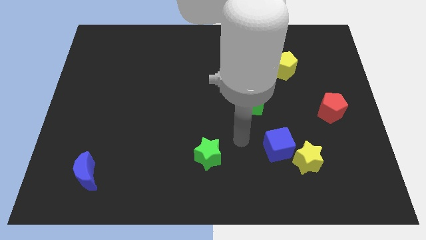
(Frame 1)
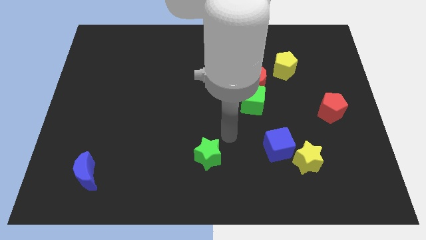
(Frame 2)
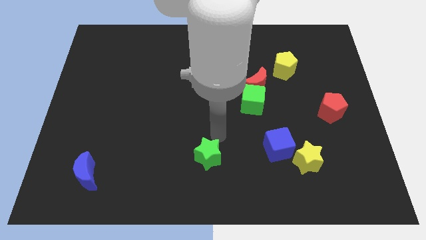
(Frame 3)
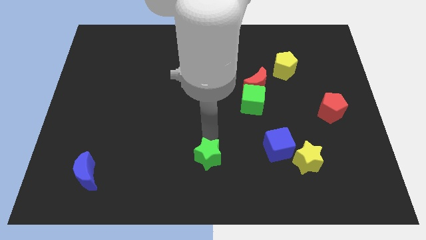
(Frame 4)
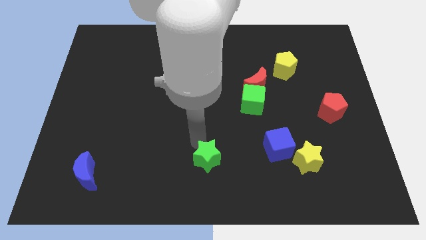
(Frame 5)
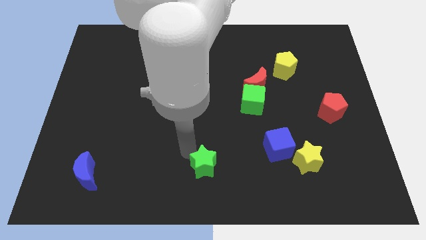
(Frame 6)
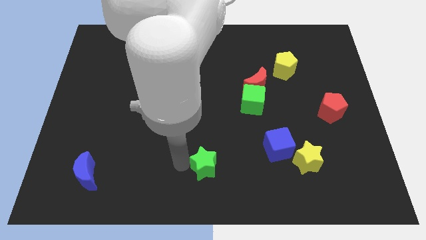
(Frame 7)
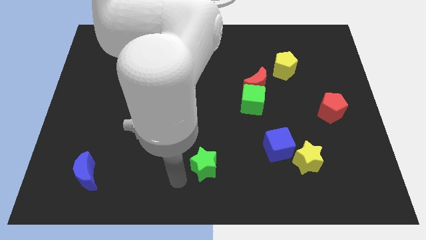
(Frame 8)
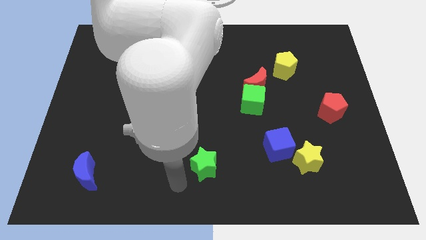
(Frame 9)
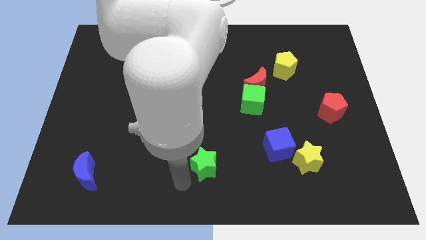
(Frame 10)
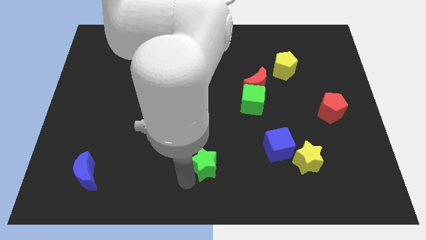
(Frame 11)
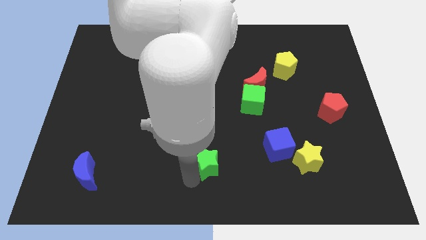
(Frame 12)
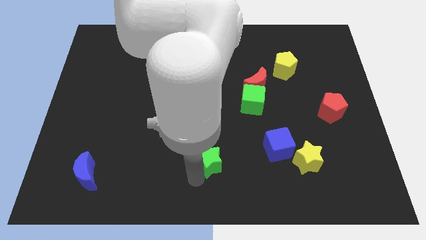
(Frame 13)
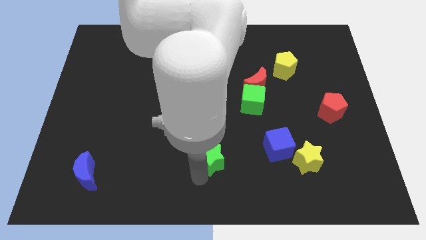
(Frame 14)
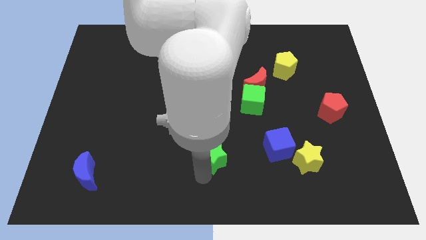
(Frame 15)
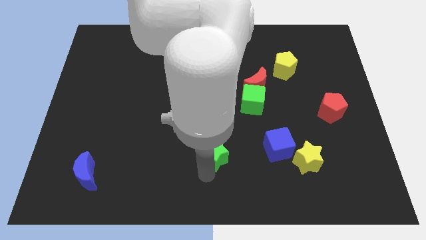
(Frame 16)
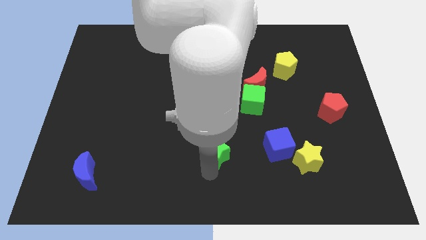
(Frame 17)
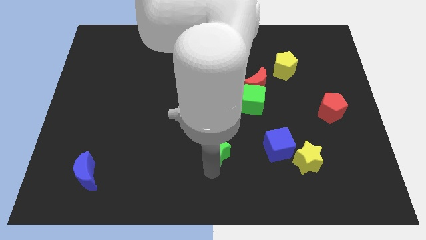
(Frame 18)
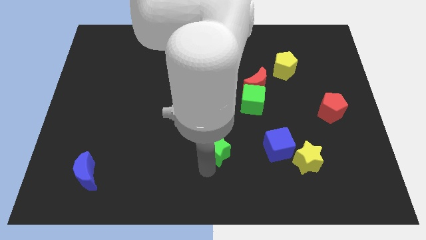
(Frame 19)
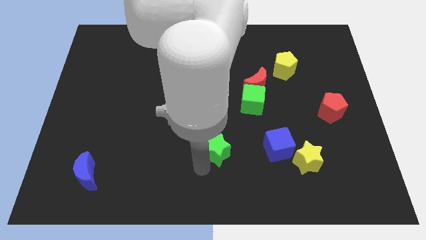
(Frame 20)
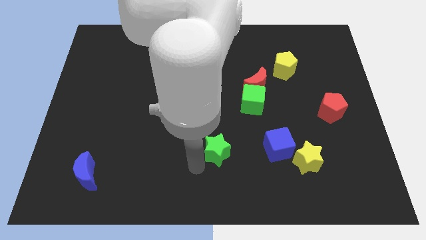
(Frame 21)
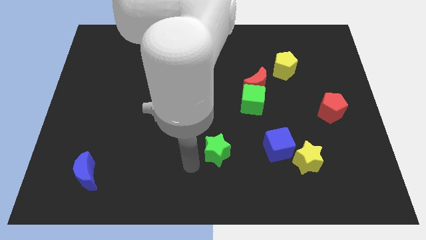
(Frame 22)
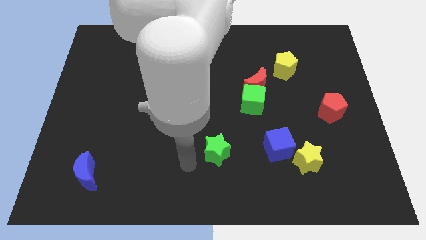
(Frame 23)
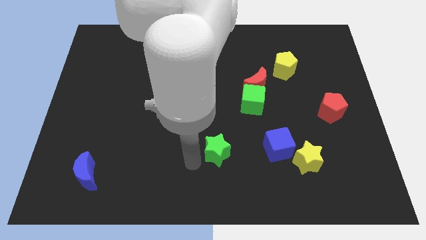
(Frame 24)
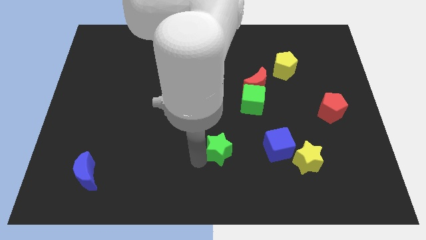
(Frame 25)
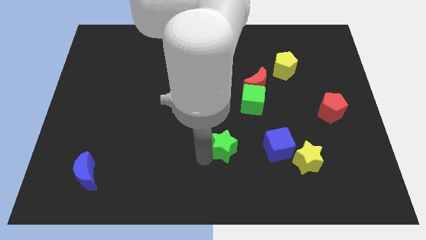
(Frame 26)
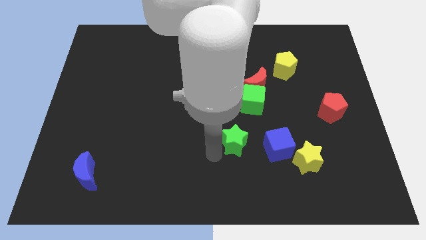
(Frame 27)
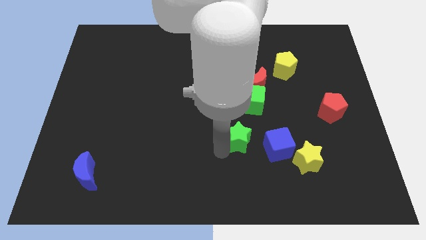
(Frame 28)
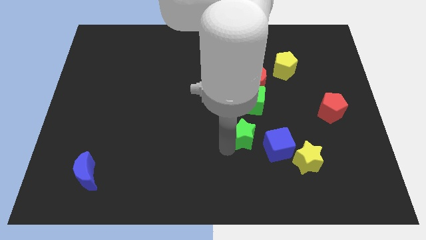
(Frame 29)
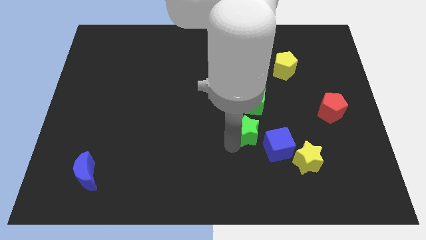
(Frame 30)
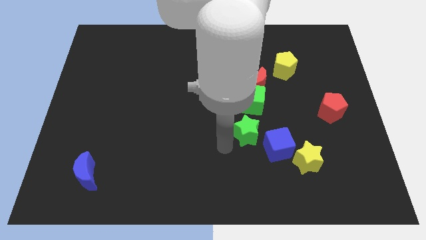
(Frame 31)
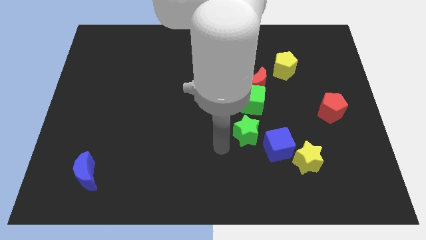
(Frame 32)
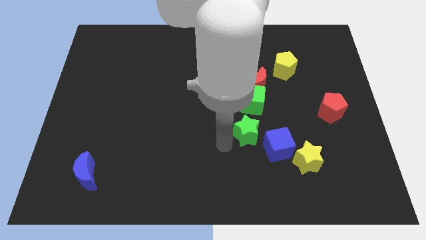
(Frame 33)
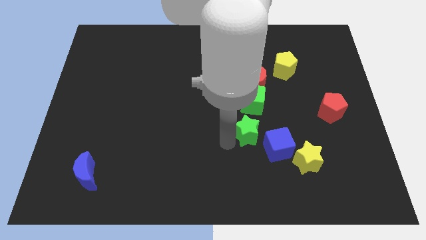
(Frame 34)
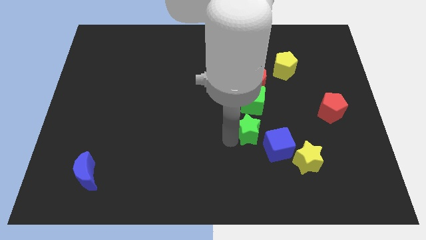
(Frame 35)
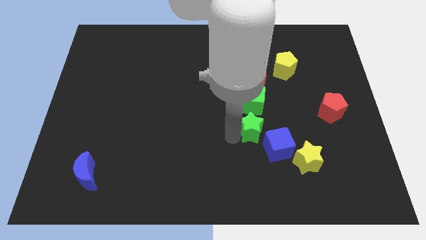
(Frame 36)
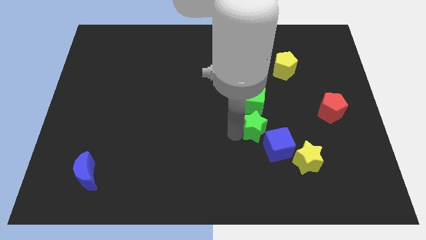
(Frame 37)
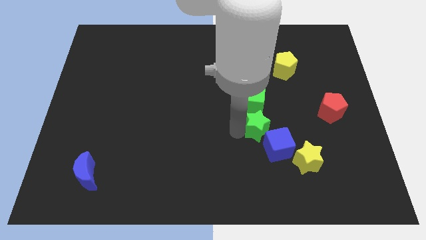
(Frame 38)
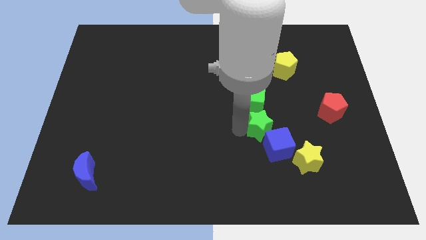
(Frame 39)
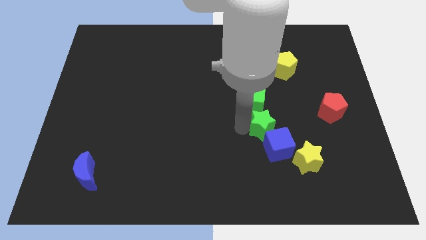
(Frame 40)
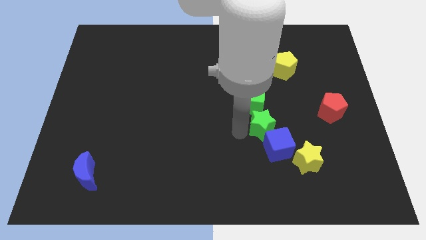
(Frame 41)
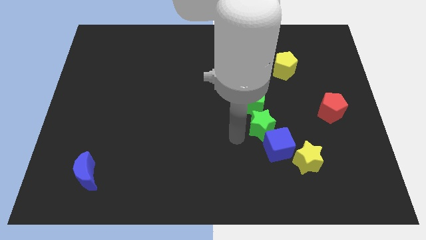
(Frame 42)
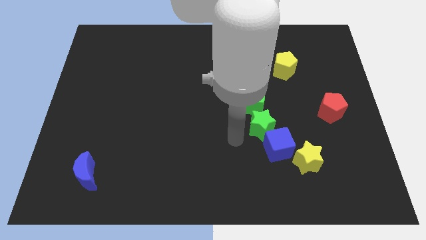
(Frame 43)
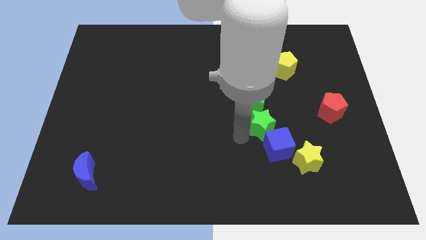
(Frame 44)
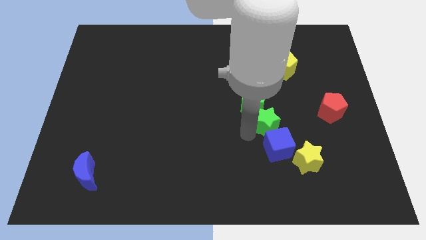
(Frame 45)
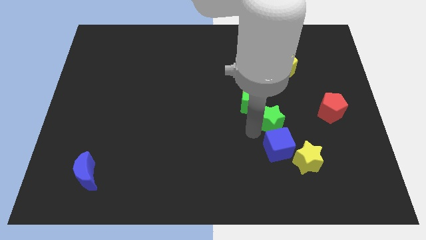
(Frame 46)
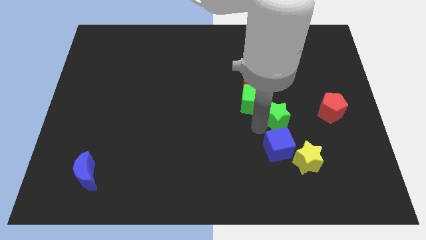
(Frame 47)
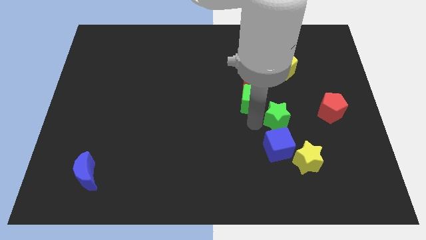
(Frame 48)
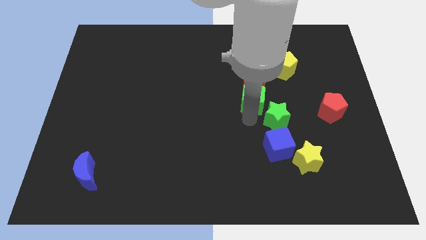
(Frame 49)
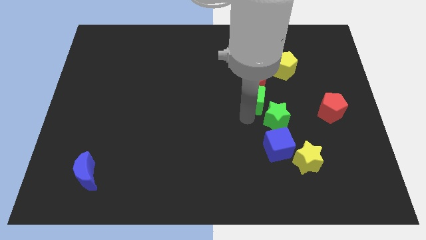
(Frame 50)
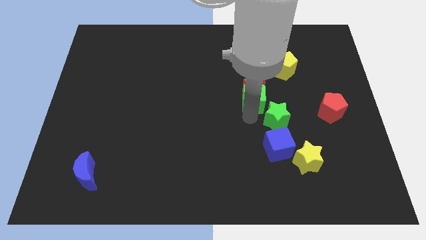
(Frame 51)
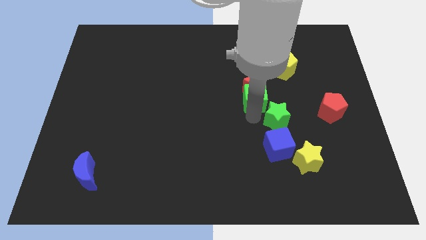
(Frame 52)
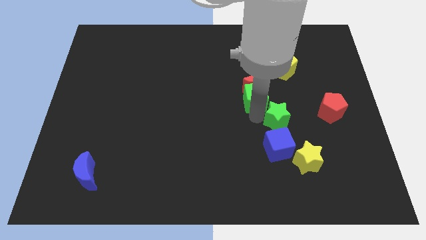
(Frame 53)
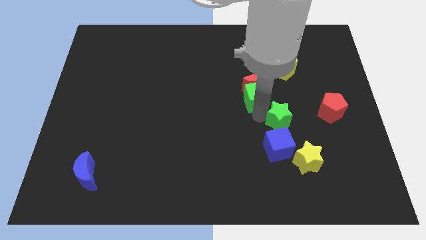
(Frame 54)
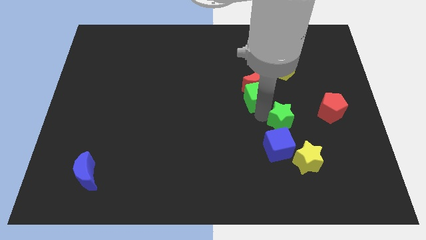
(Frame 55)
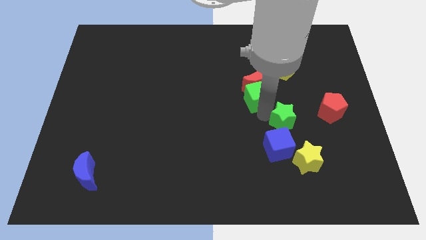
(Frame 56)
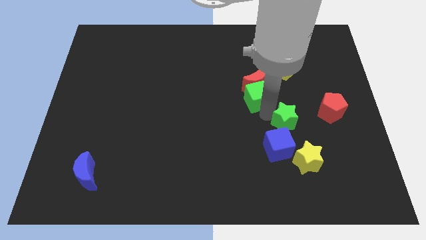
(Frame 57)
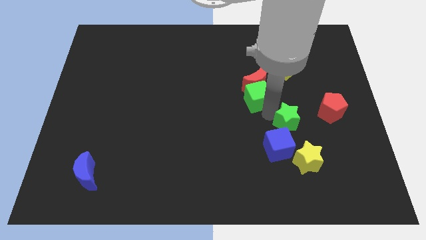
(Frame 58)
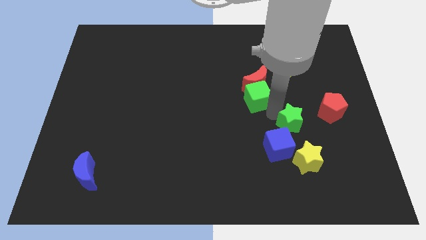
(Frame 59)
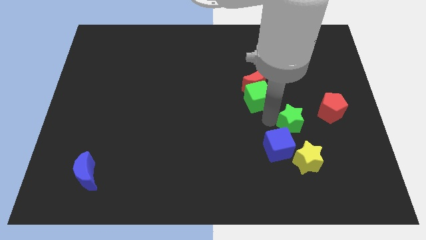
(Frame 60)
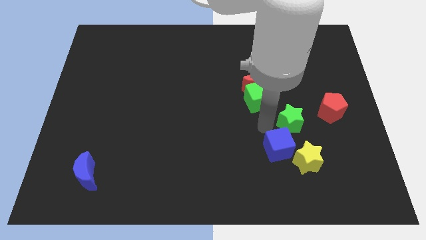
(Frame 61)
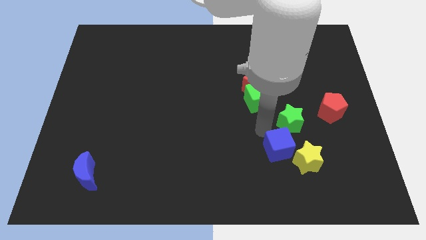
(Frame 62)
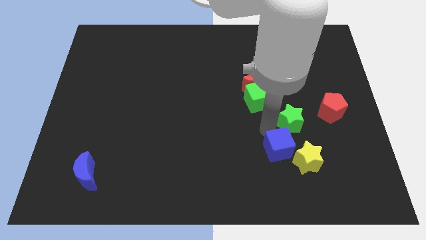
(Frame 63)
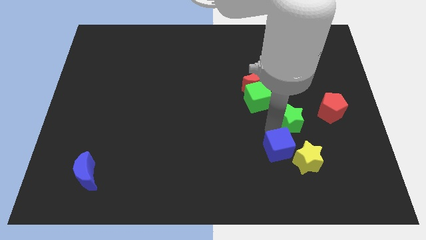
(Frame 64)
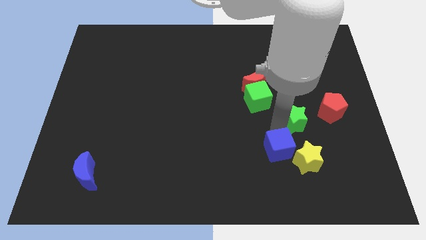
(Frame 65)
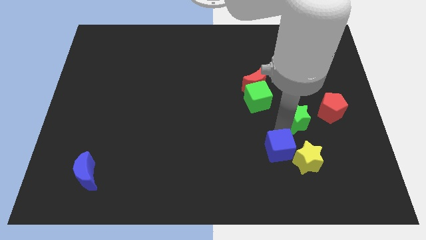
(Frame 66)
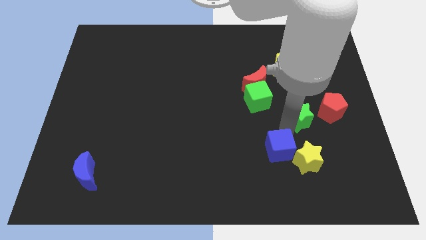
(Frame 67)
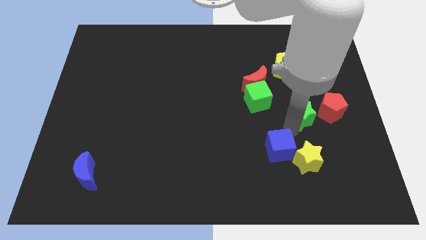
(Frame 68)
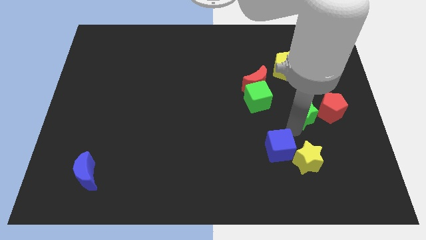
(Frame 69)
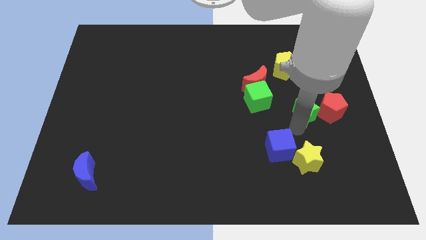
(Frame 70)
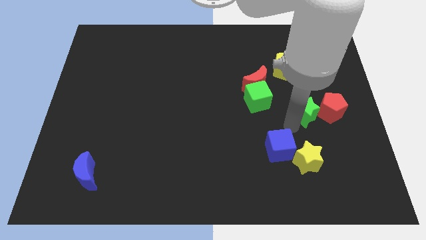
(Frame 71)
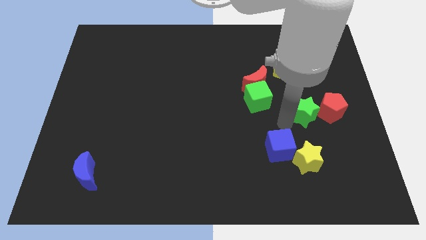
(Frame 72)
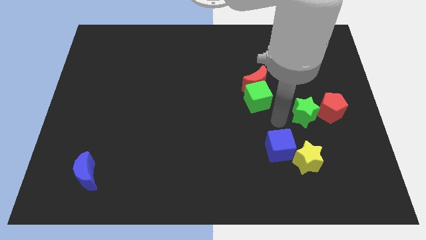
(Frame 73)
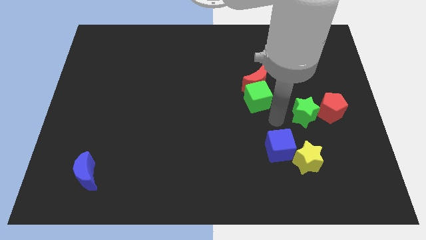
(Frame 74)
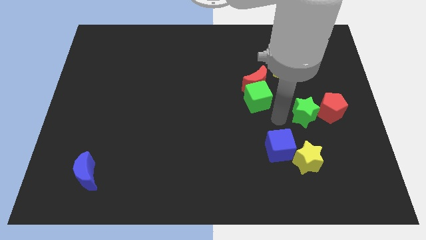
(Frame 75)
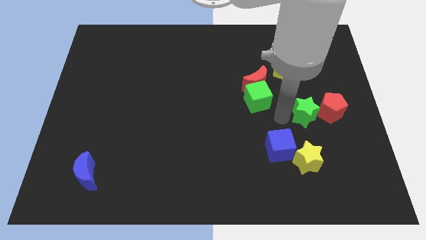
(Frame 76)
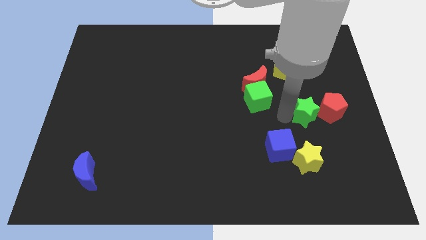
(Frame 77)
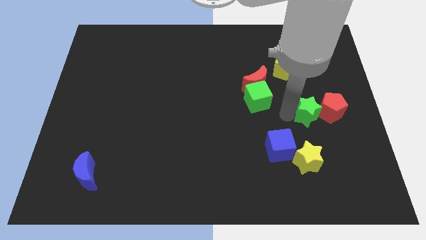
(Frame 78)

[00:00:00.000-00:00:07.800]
put the green star towards the red pentagon
